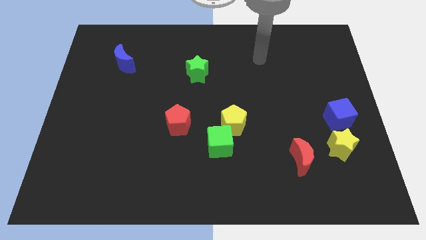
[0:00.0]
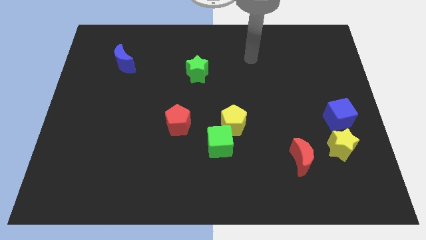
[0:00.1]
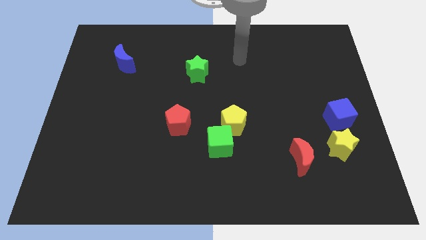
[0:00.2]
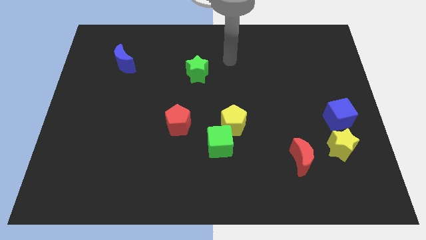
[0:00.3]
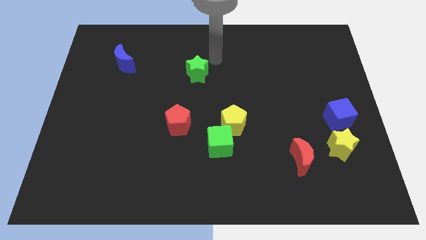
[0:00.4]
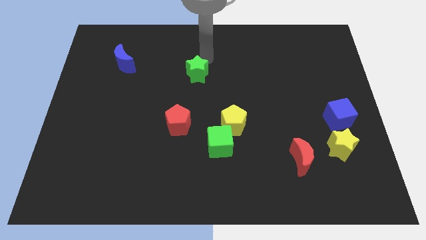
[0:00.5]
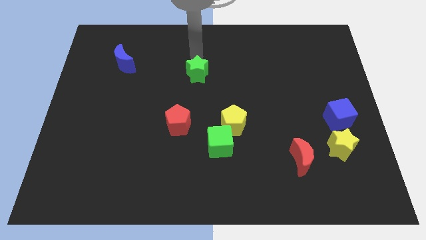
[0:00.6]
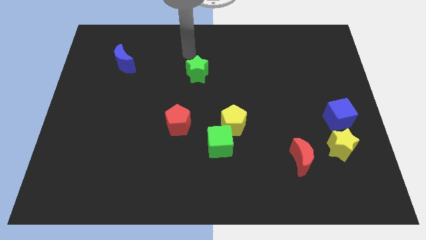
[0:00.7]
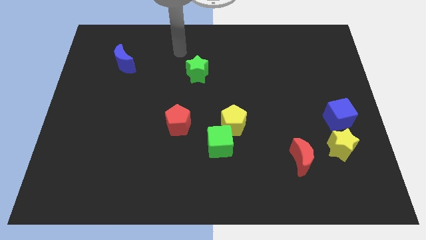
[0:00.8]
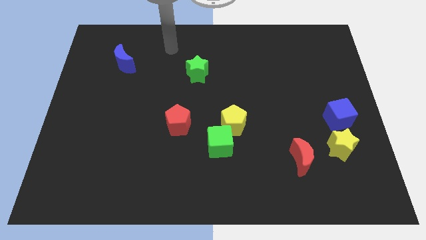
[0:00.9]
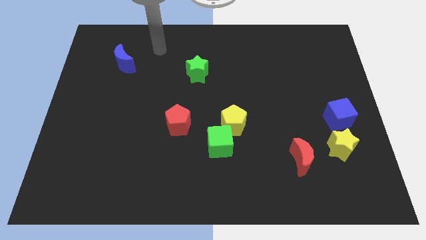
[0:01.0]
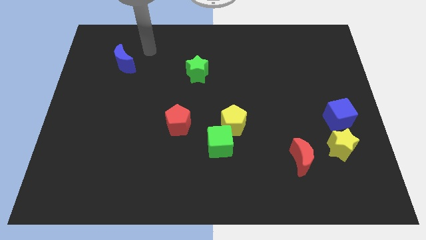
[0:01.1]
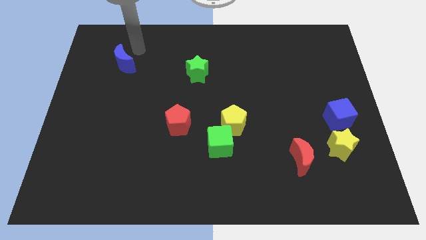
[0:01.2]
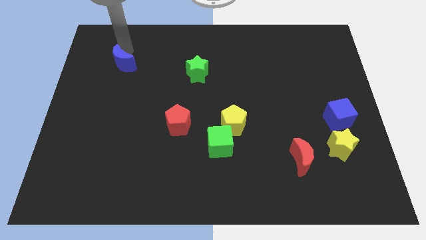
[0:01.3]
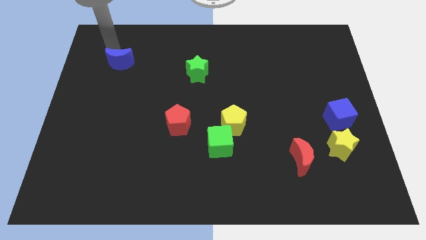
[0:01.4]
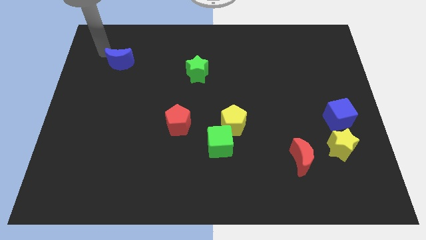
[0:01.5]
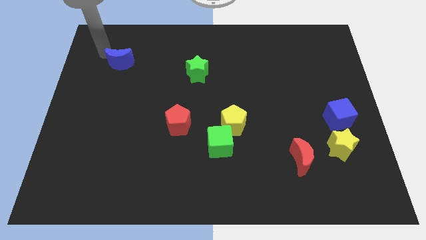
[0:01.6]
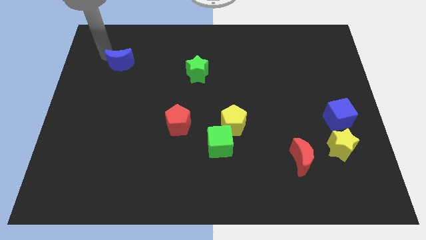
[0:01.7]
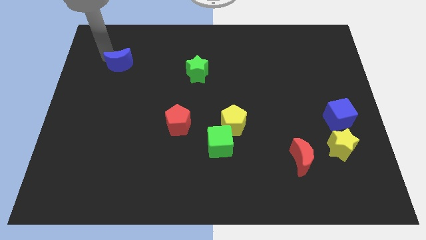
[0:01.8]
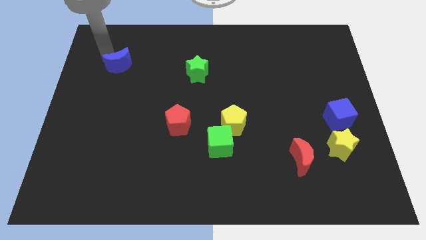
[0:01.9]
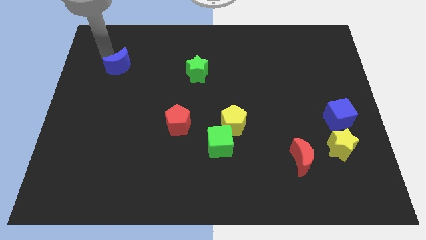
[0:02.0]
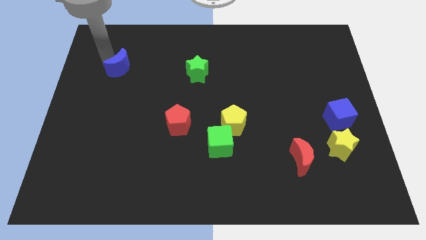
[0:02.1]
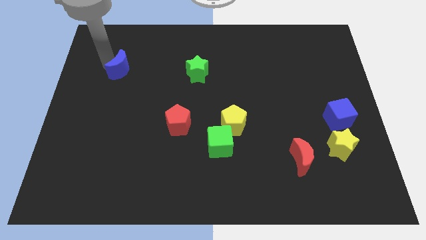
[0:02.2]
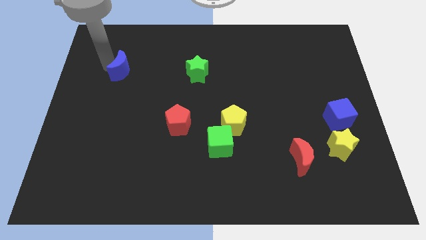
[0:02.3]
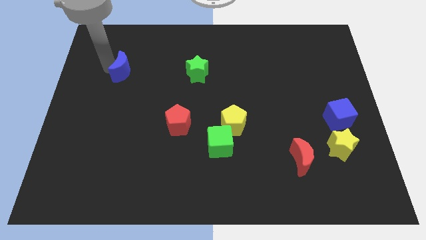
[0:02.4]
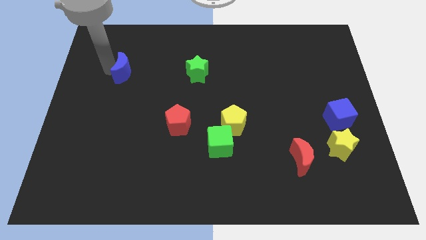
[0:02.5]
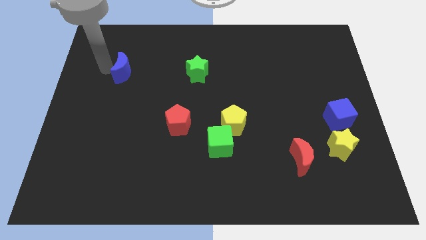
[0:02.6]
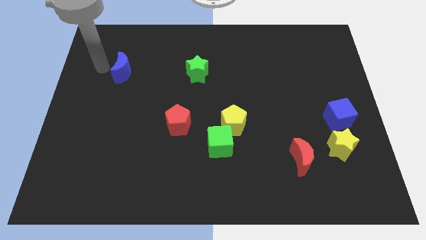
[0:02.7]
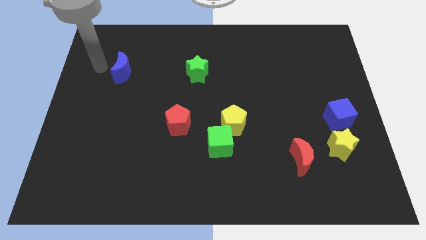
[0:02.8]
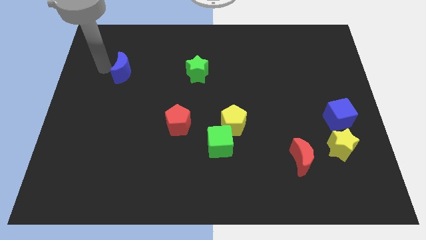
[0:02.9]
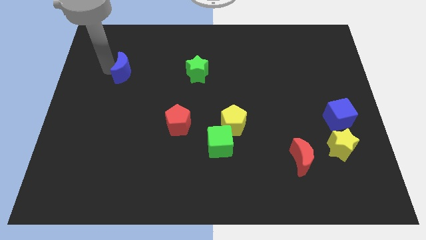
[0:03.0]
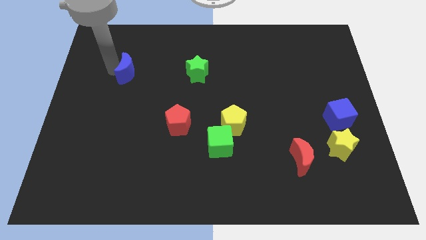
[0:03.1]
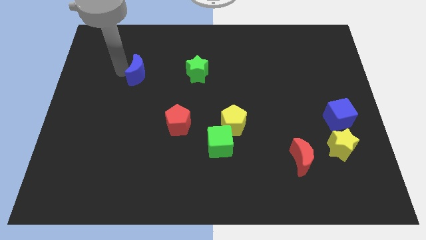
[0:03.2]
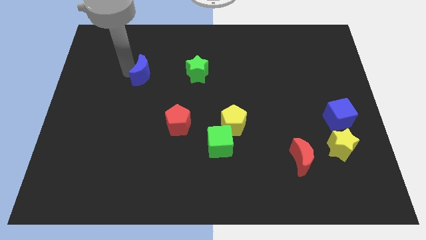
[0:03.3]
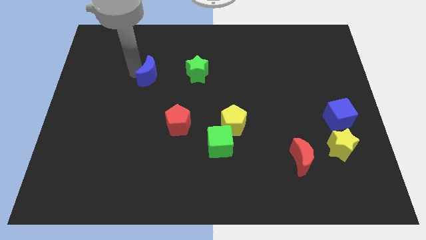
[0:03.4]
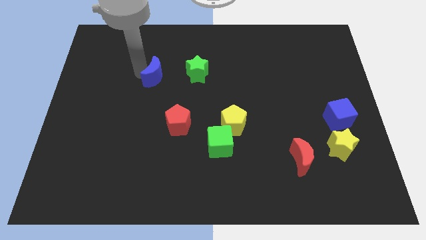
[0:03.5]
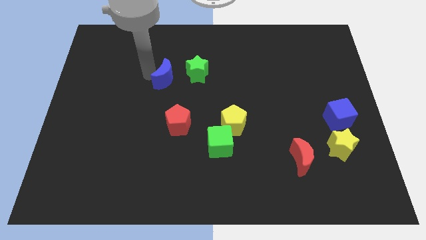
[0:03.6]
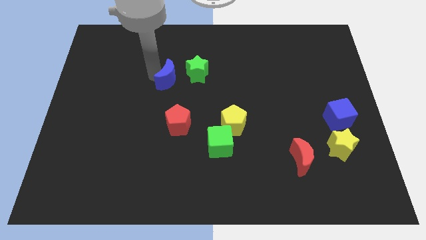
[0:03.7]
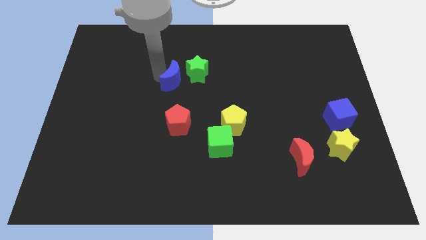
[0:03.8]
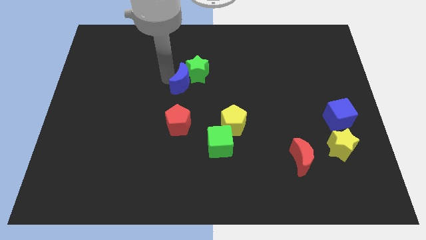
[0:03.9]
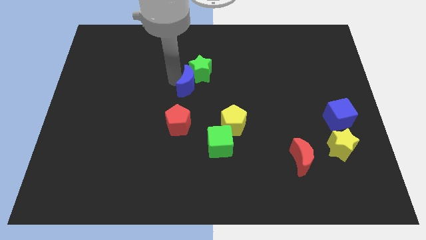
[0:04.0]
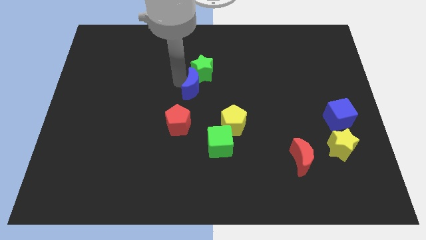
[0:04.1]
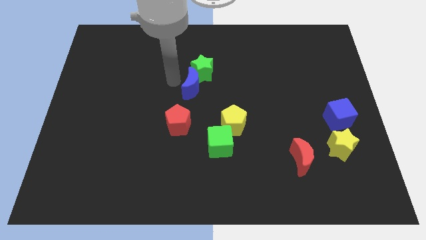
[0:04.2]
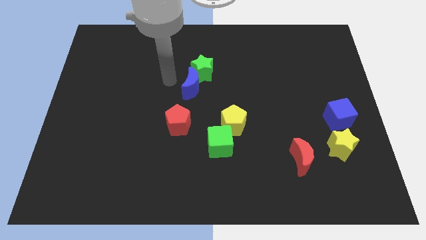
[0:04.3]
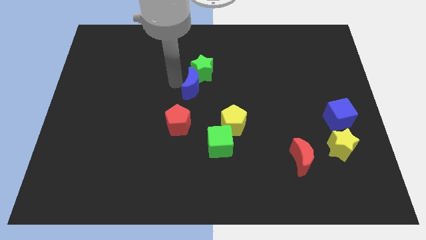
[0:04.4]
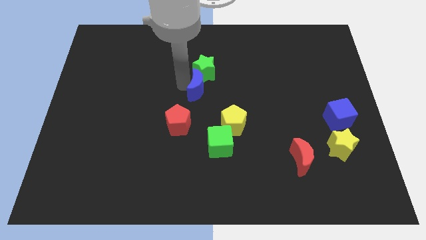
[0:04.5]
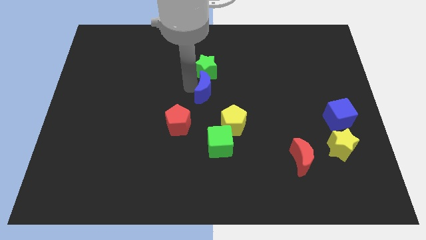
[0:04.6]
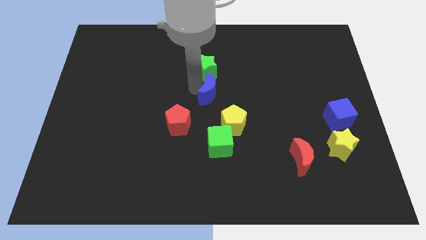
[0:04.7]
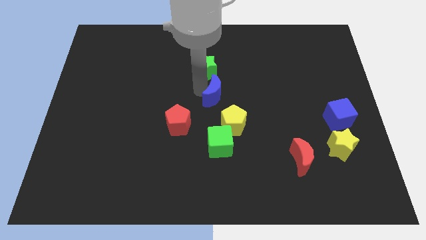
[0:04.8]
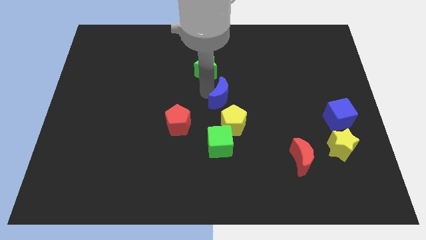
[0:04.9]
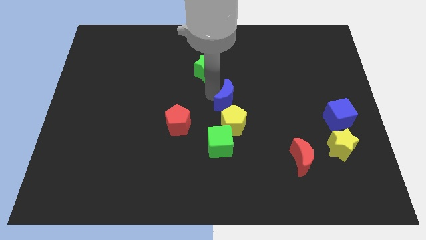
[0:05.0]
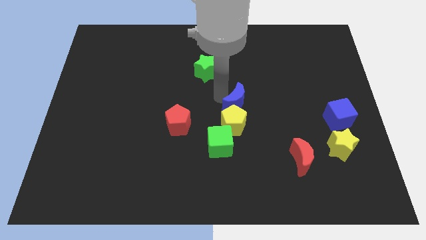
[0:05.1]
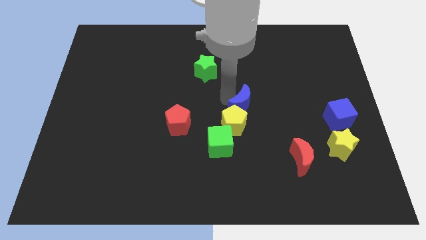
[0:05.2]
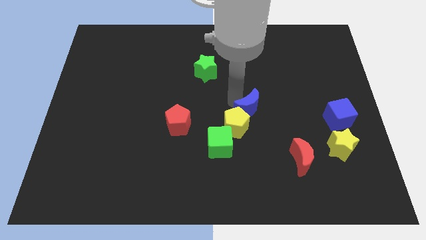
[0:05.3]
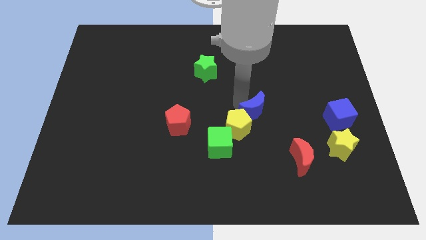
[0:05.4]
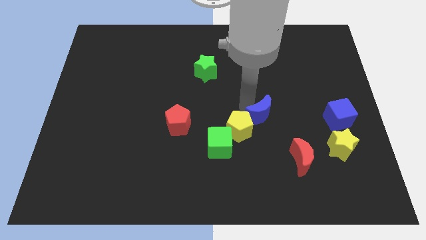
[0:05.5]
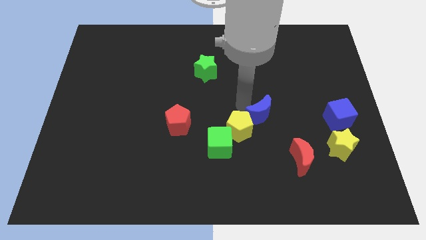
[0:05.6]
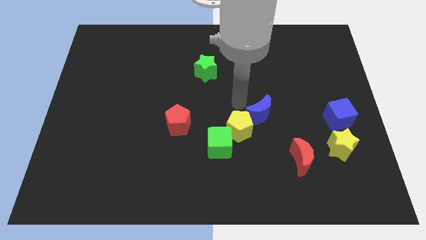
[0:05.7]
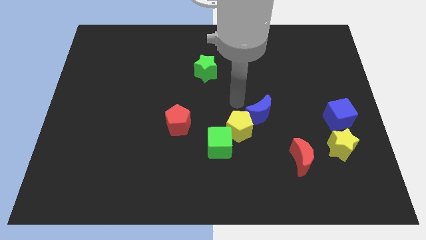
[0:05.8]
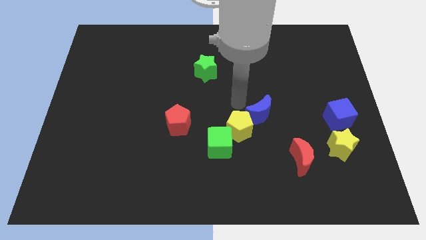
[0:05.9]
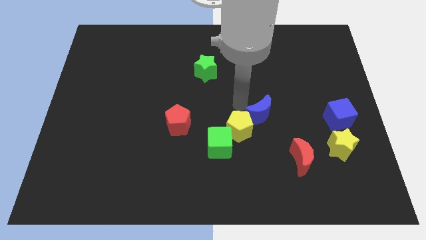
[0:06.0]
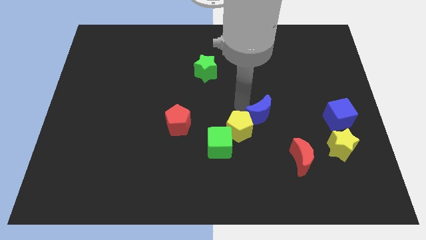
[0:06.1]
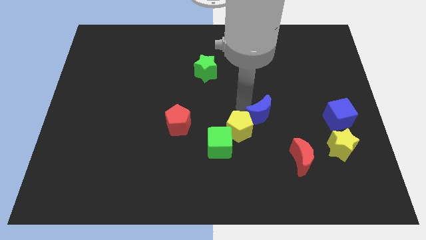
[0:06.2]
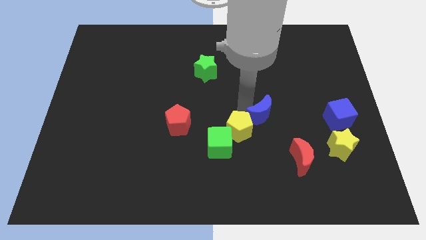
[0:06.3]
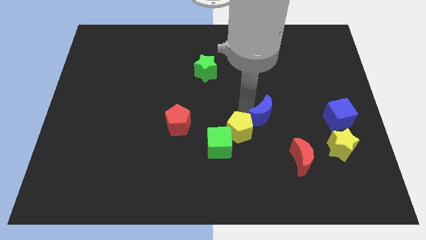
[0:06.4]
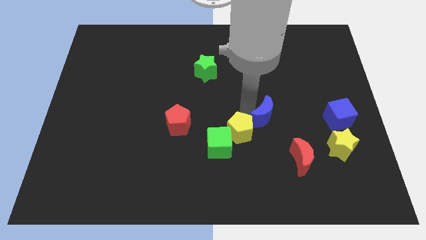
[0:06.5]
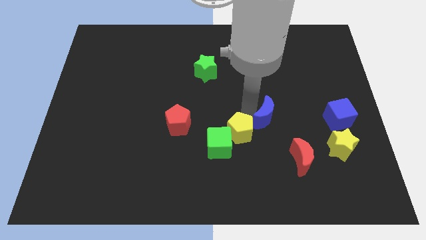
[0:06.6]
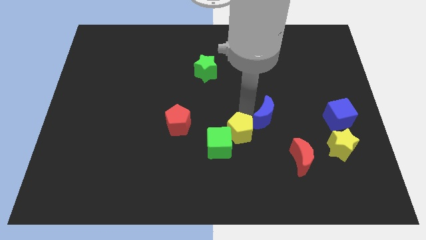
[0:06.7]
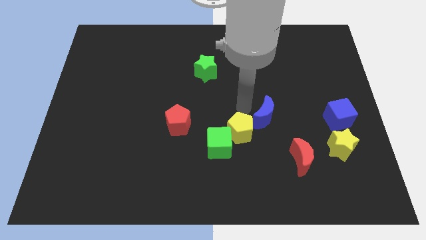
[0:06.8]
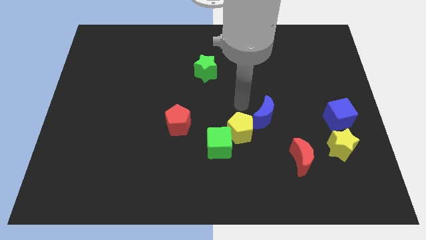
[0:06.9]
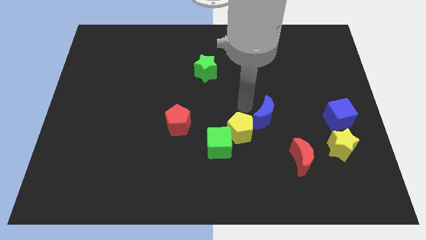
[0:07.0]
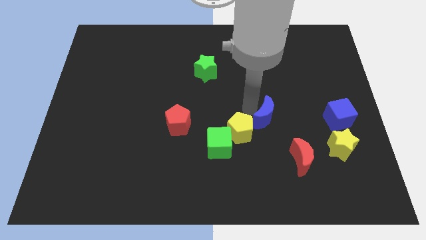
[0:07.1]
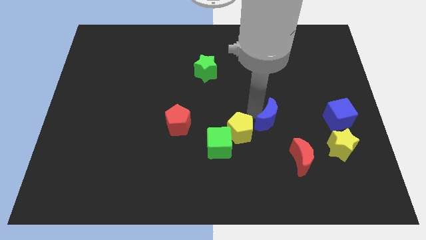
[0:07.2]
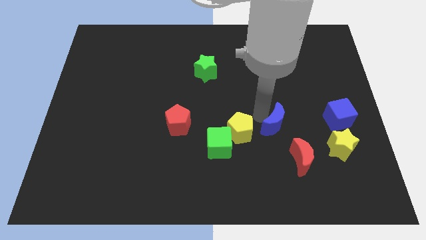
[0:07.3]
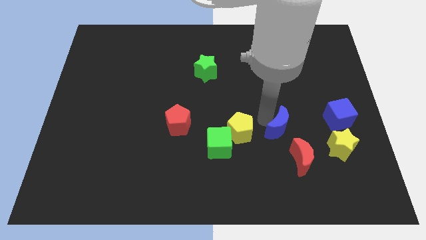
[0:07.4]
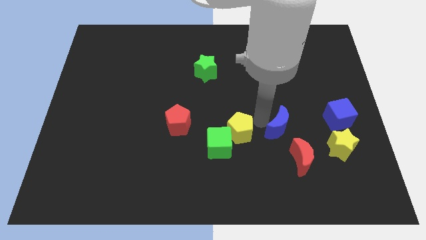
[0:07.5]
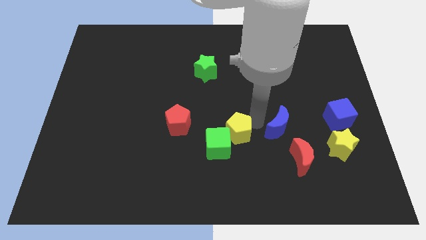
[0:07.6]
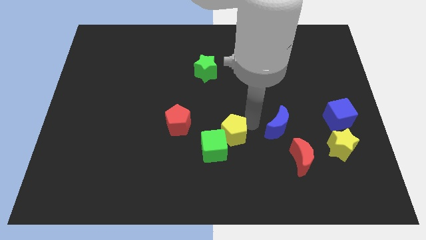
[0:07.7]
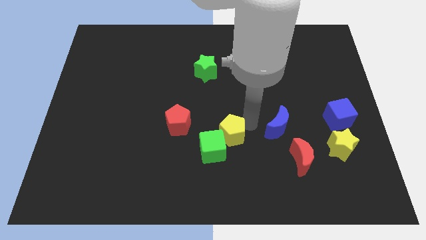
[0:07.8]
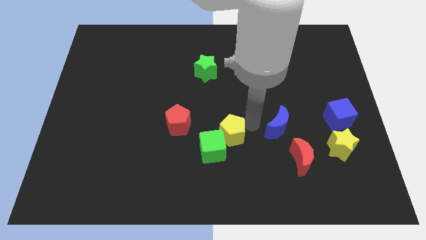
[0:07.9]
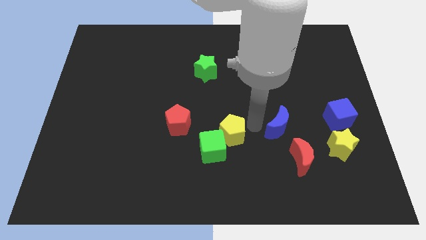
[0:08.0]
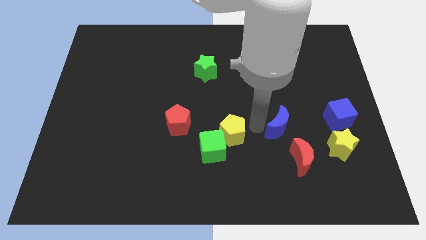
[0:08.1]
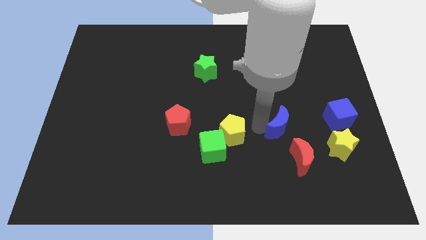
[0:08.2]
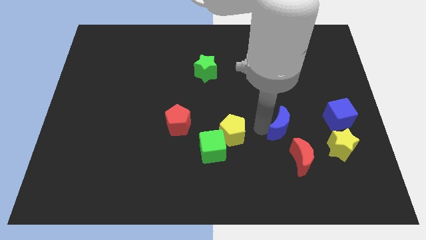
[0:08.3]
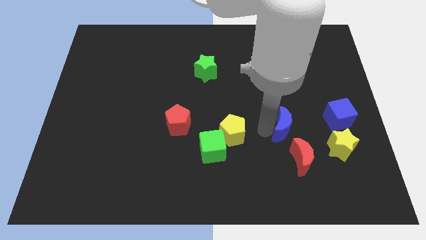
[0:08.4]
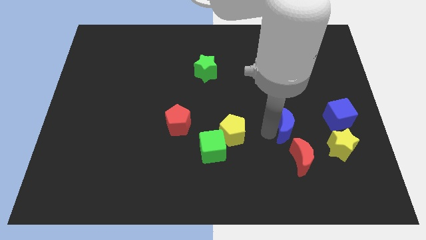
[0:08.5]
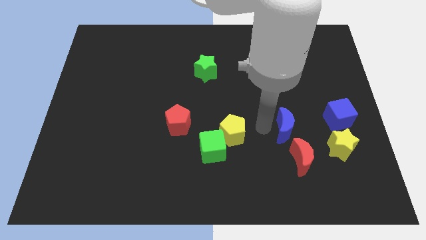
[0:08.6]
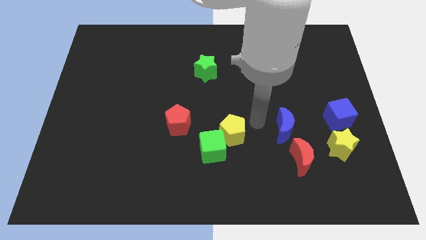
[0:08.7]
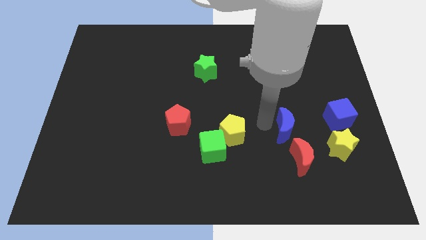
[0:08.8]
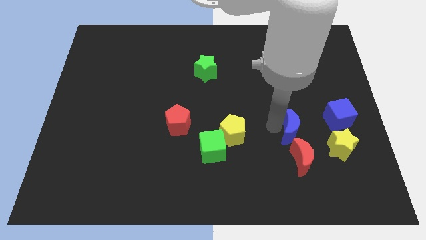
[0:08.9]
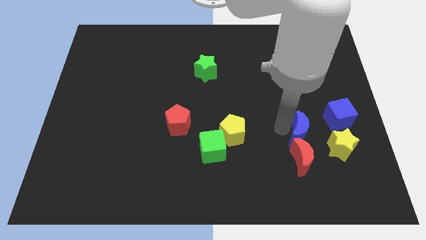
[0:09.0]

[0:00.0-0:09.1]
slide the blue moon to the top right of the red moon
